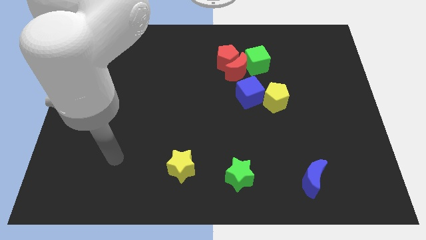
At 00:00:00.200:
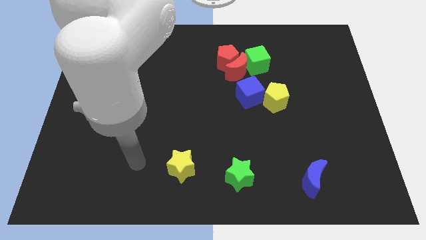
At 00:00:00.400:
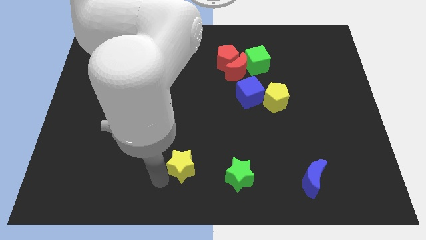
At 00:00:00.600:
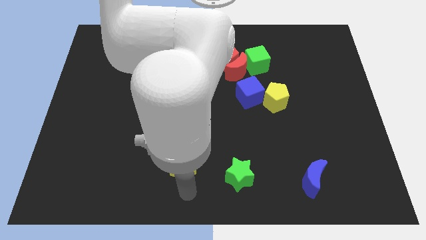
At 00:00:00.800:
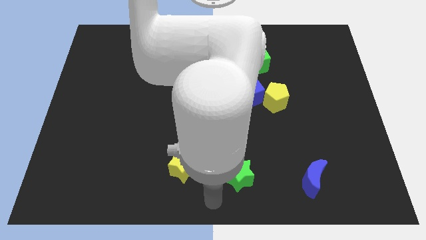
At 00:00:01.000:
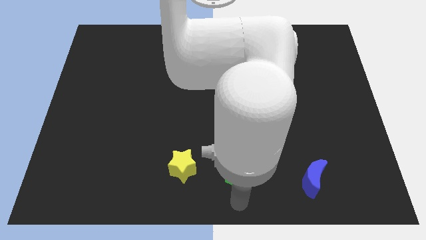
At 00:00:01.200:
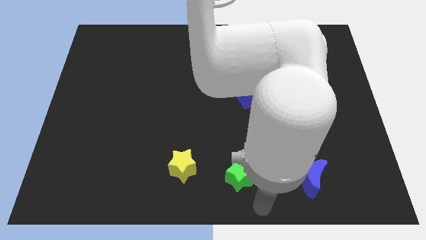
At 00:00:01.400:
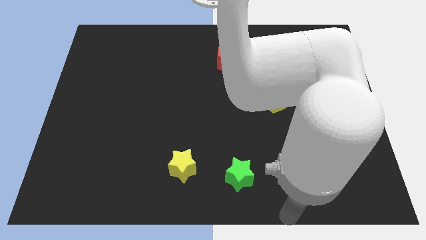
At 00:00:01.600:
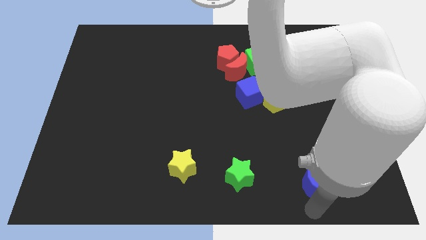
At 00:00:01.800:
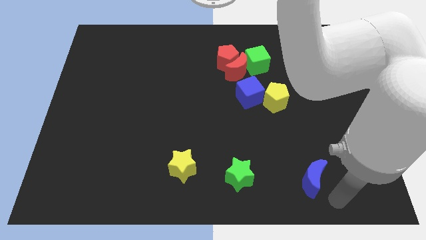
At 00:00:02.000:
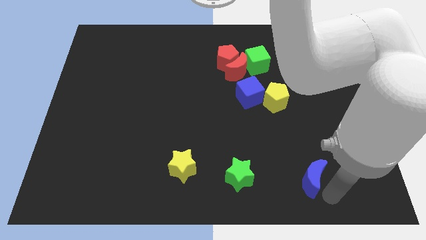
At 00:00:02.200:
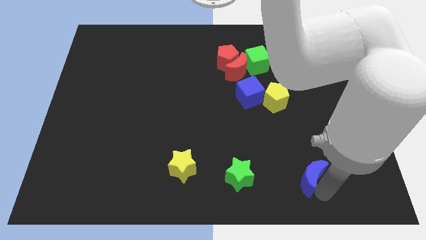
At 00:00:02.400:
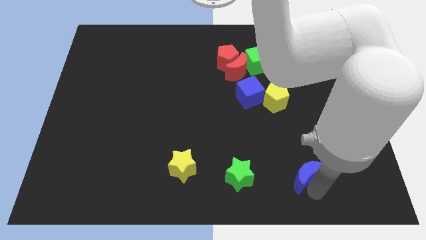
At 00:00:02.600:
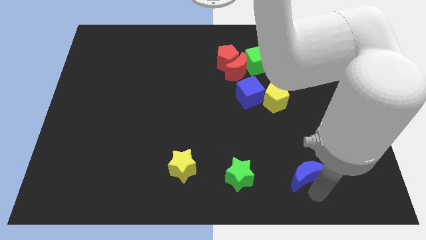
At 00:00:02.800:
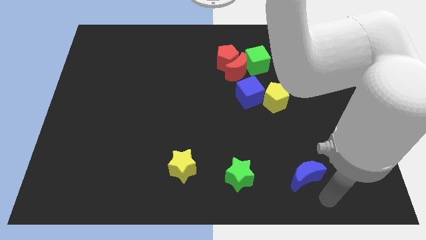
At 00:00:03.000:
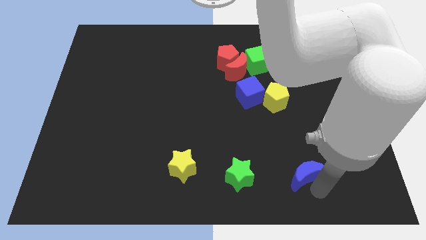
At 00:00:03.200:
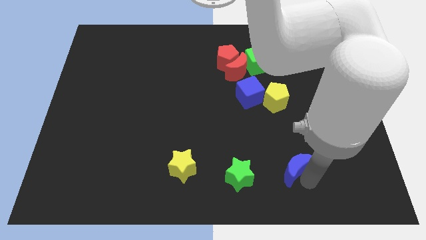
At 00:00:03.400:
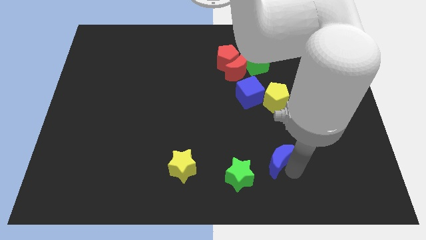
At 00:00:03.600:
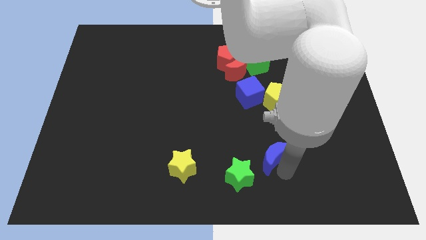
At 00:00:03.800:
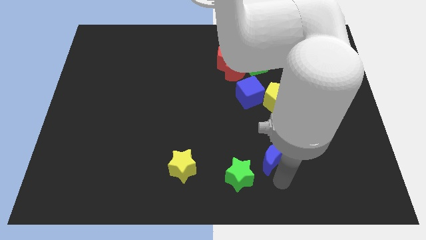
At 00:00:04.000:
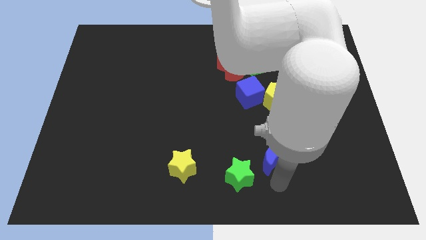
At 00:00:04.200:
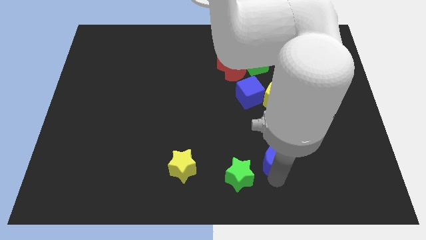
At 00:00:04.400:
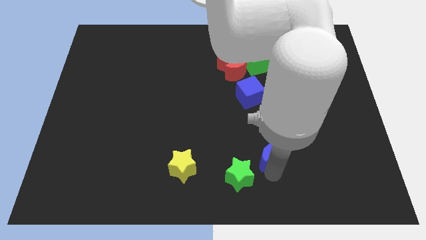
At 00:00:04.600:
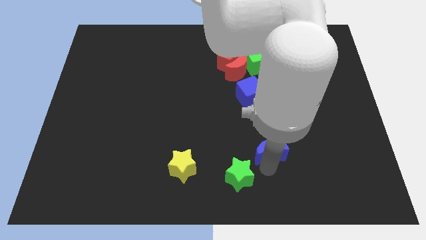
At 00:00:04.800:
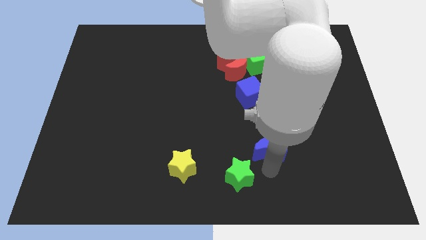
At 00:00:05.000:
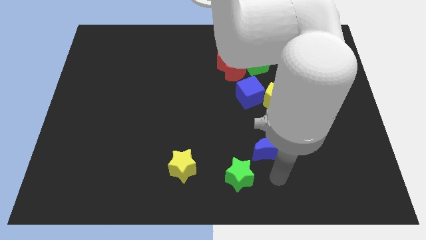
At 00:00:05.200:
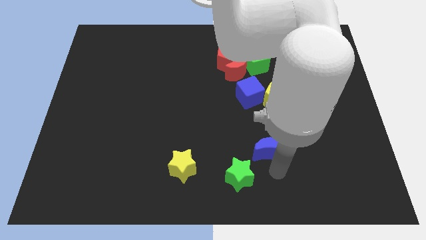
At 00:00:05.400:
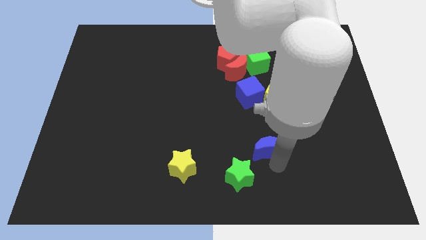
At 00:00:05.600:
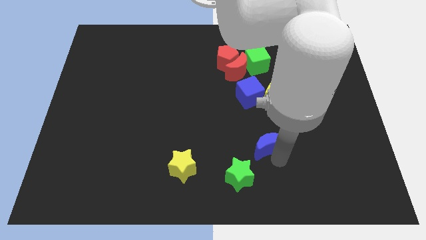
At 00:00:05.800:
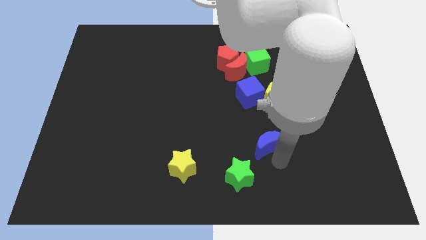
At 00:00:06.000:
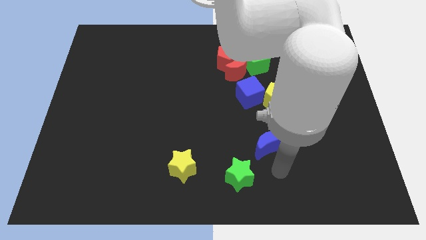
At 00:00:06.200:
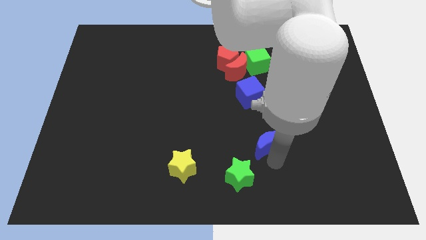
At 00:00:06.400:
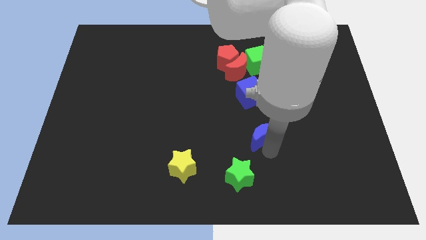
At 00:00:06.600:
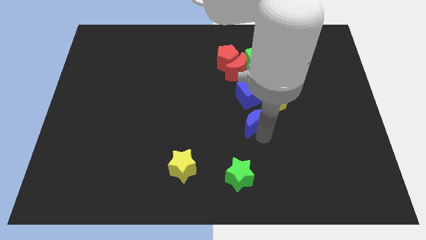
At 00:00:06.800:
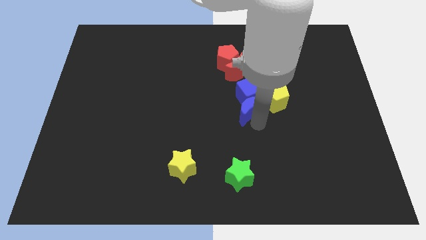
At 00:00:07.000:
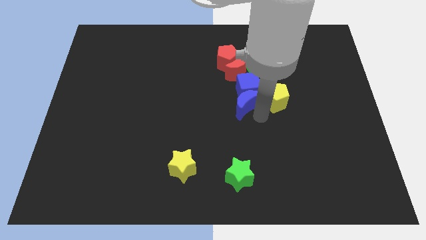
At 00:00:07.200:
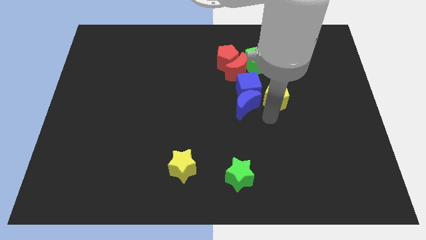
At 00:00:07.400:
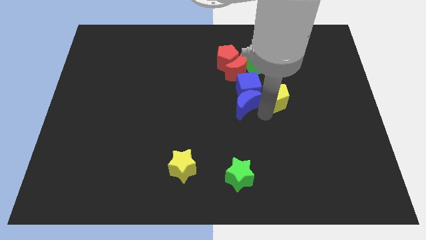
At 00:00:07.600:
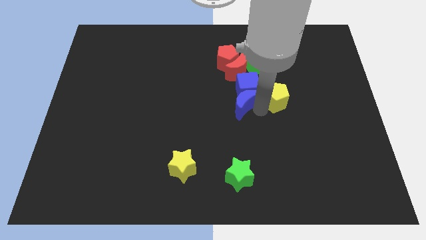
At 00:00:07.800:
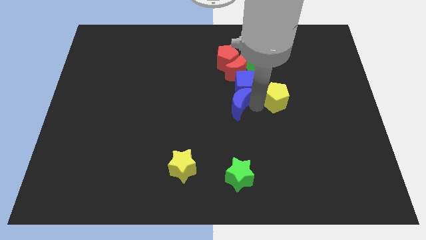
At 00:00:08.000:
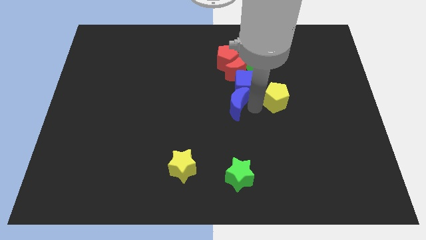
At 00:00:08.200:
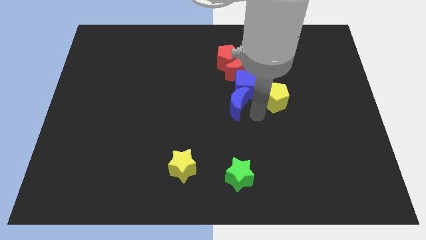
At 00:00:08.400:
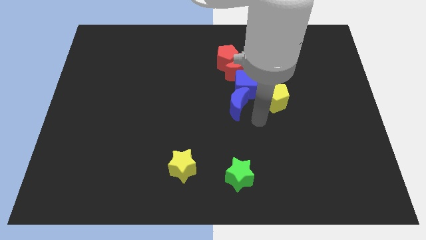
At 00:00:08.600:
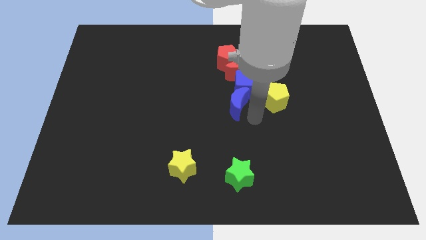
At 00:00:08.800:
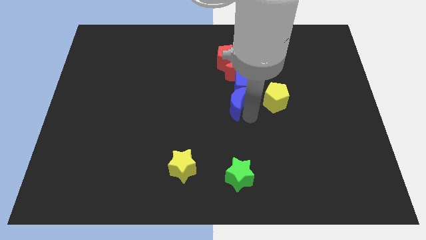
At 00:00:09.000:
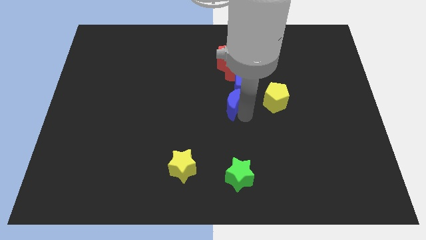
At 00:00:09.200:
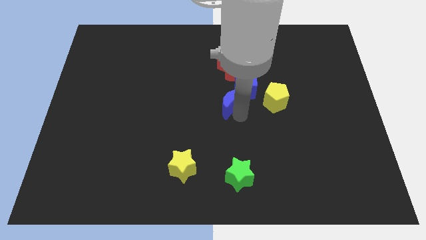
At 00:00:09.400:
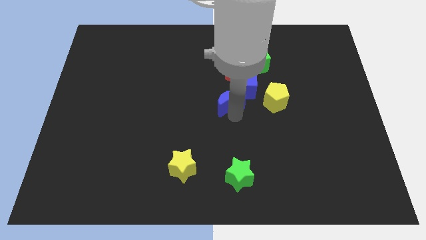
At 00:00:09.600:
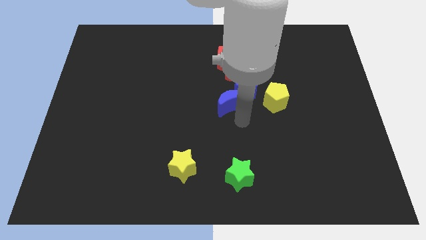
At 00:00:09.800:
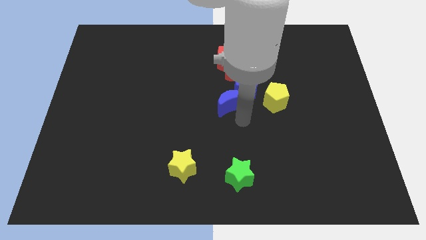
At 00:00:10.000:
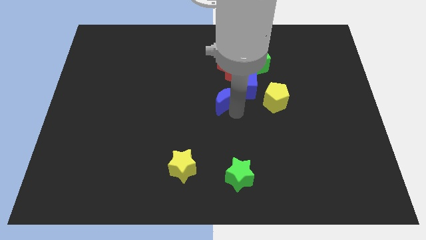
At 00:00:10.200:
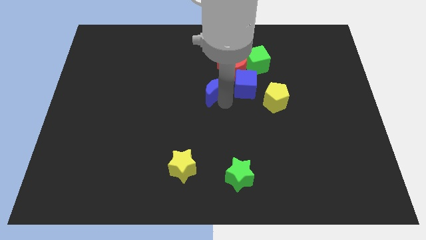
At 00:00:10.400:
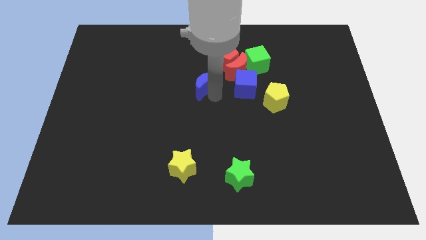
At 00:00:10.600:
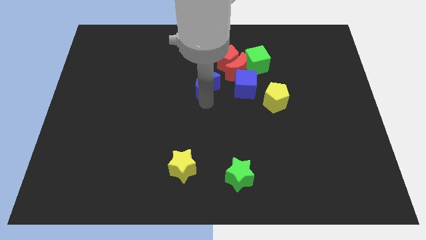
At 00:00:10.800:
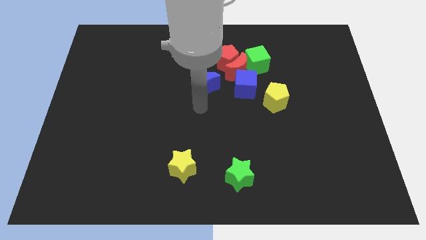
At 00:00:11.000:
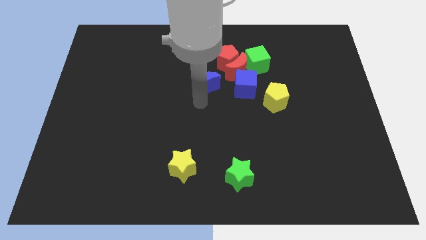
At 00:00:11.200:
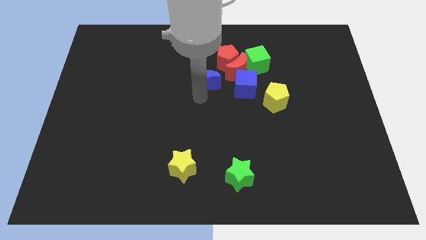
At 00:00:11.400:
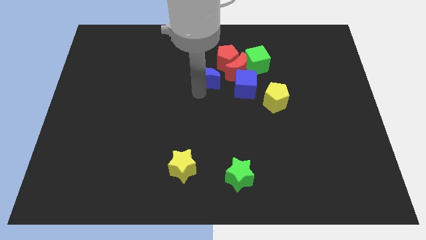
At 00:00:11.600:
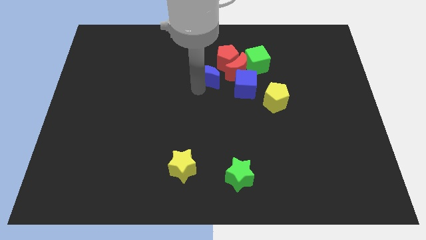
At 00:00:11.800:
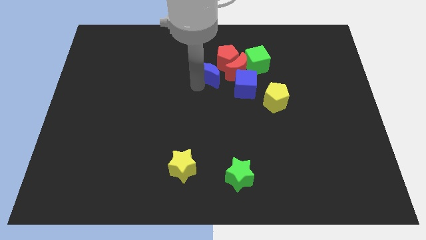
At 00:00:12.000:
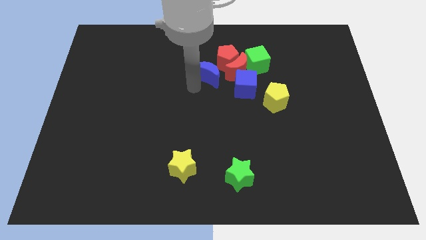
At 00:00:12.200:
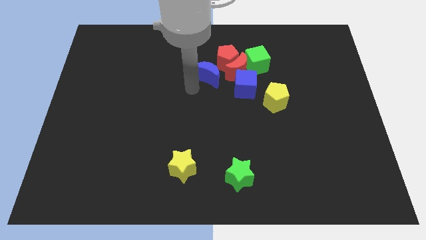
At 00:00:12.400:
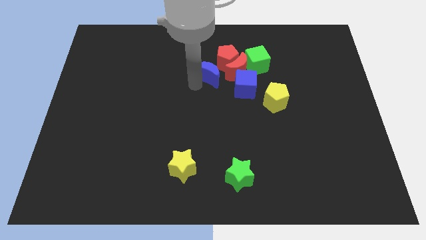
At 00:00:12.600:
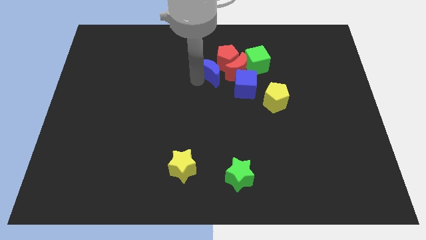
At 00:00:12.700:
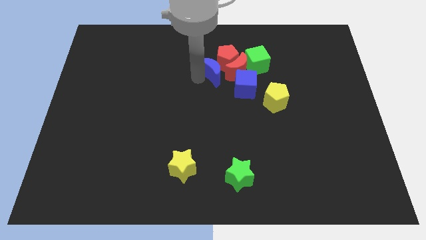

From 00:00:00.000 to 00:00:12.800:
push the blue moon towards the red pentagon
